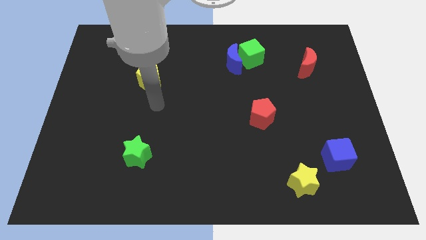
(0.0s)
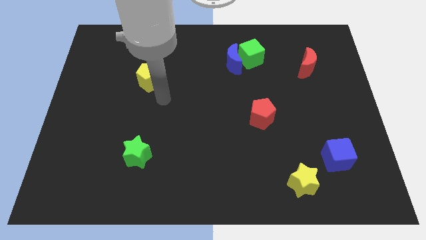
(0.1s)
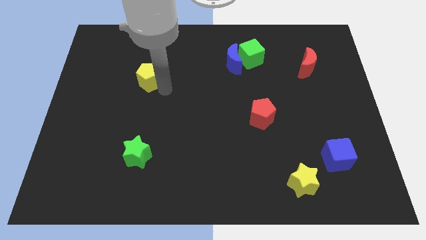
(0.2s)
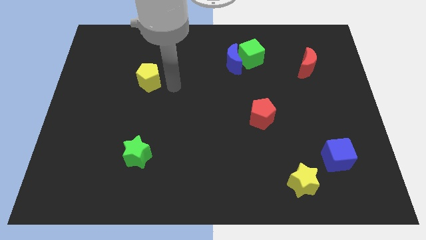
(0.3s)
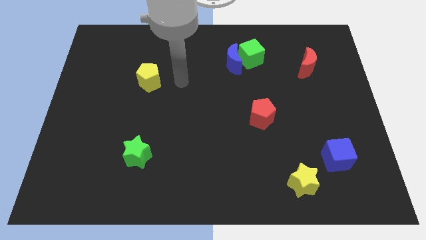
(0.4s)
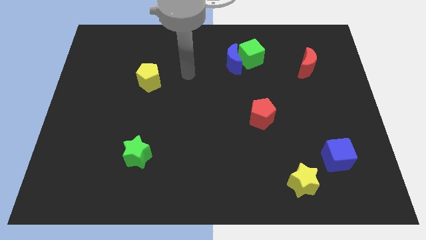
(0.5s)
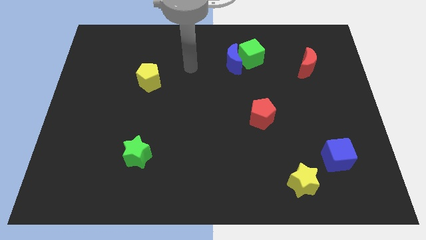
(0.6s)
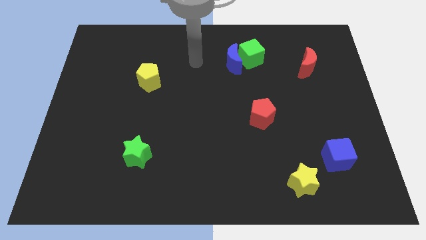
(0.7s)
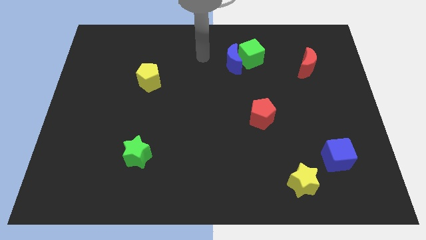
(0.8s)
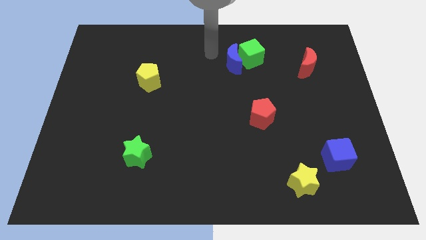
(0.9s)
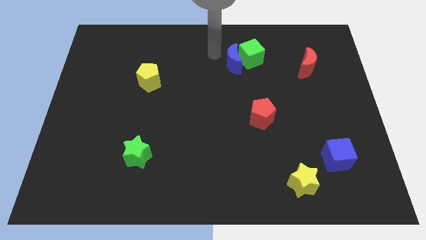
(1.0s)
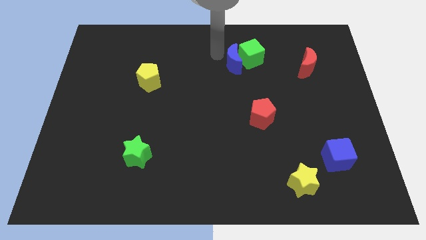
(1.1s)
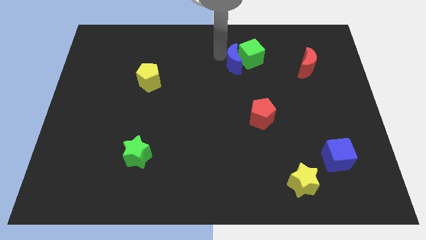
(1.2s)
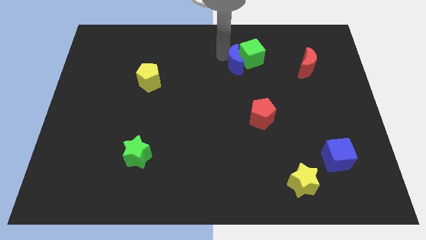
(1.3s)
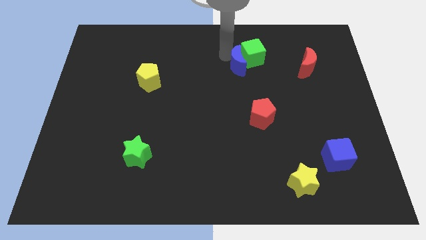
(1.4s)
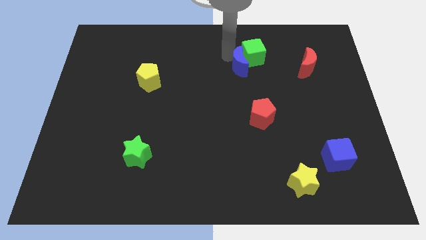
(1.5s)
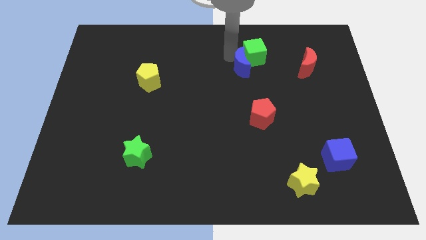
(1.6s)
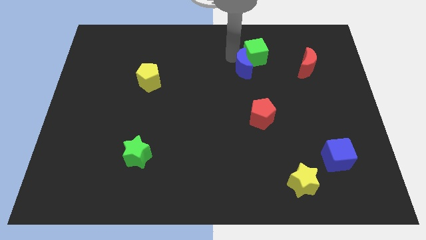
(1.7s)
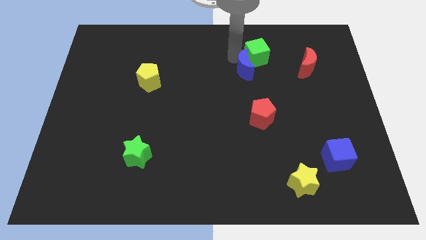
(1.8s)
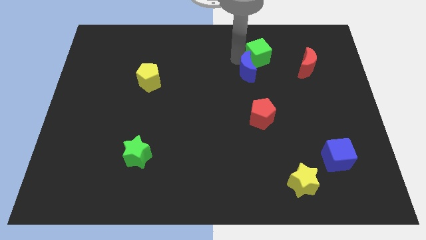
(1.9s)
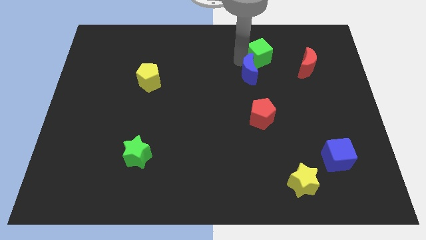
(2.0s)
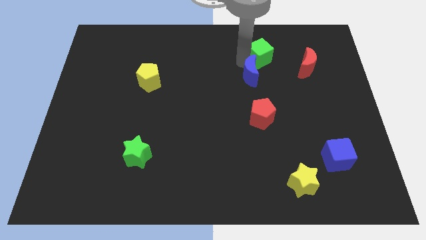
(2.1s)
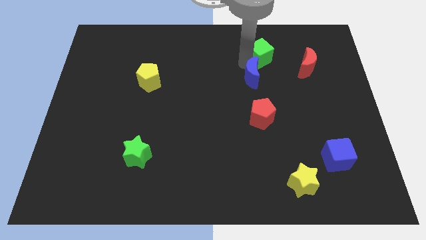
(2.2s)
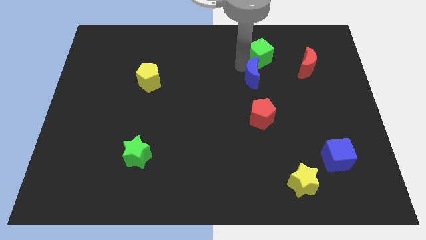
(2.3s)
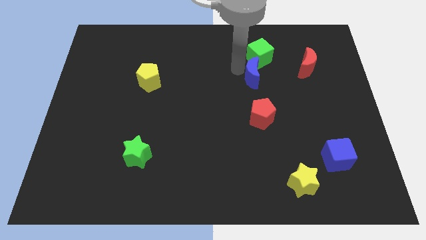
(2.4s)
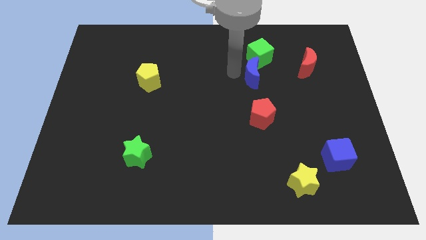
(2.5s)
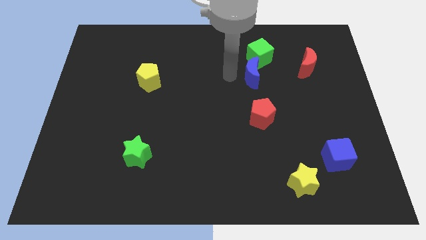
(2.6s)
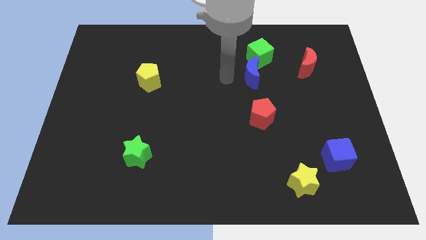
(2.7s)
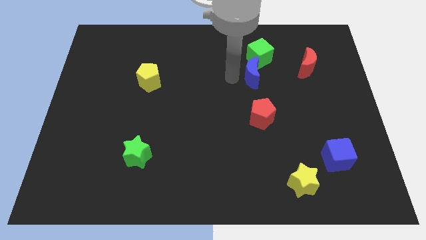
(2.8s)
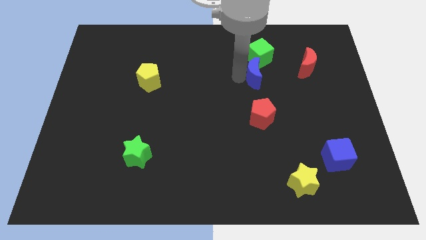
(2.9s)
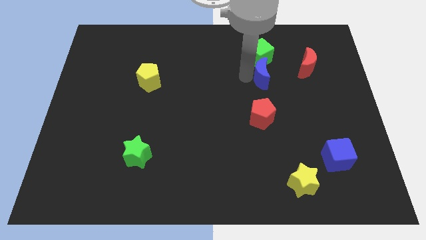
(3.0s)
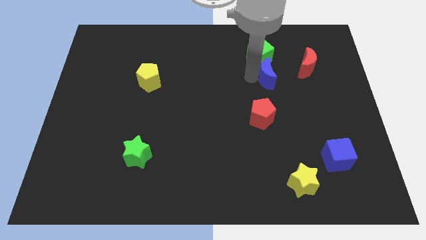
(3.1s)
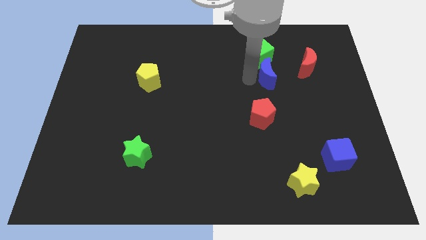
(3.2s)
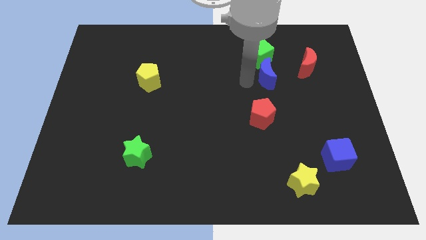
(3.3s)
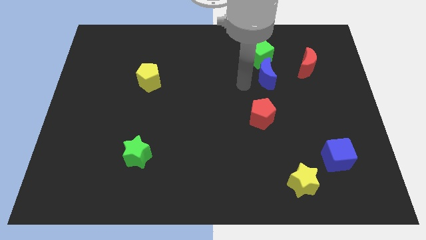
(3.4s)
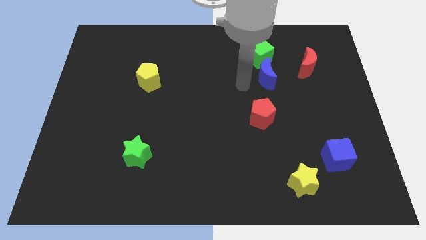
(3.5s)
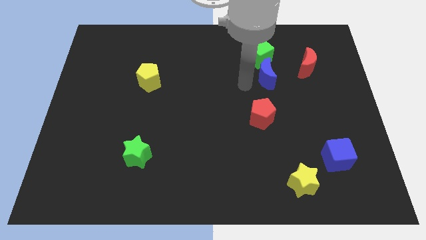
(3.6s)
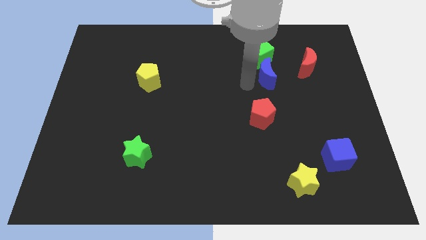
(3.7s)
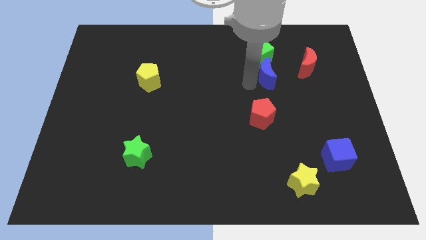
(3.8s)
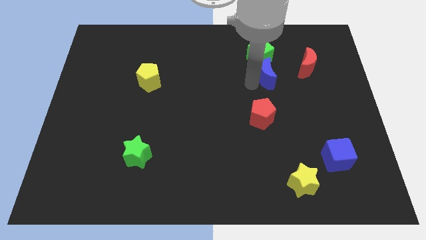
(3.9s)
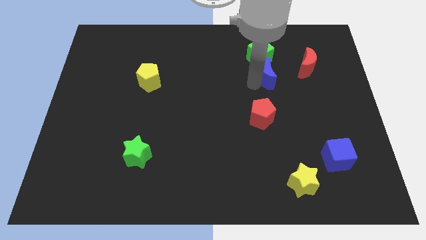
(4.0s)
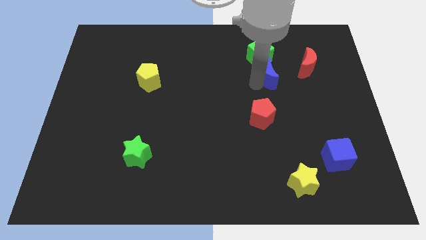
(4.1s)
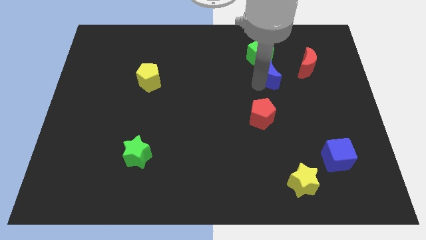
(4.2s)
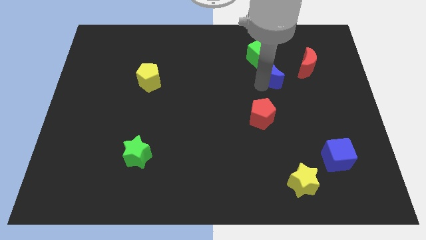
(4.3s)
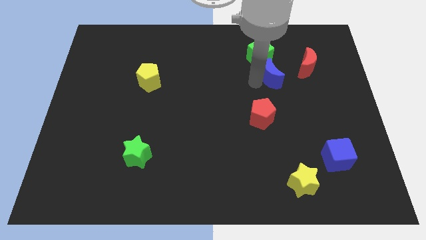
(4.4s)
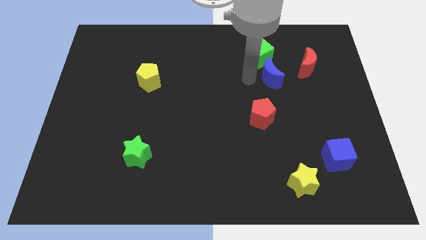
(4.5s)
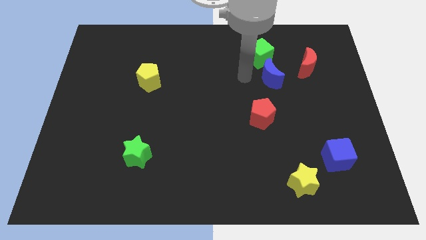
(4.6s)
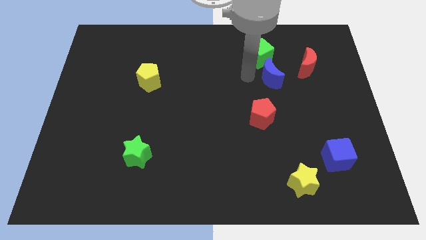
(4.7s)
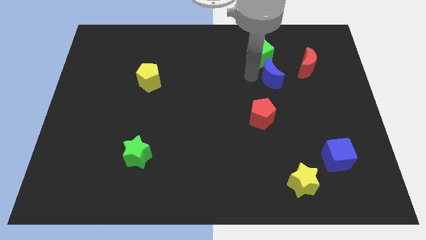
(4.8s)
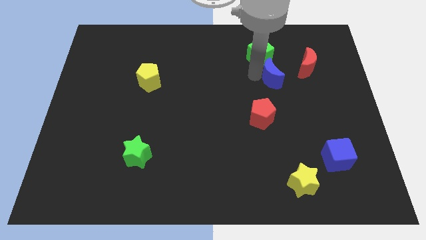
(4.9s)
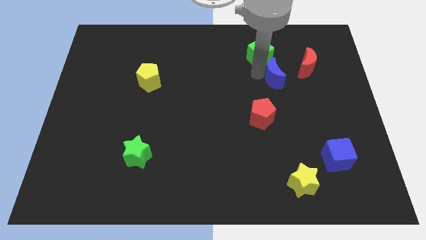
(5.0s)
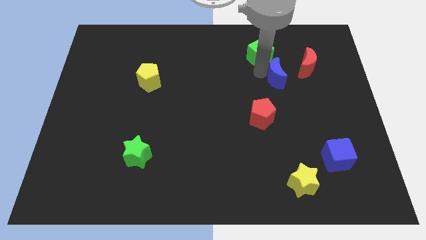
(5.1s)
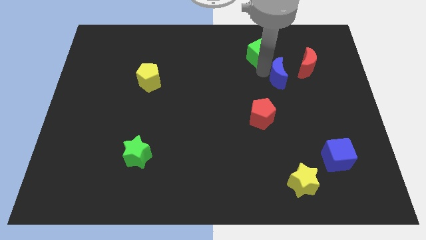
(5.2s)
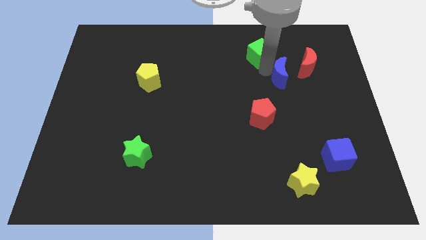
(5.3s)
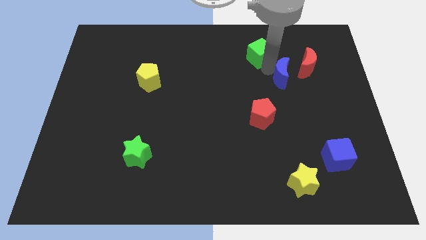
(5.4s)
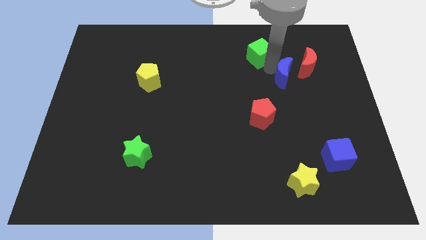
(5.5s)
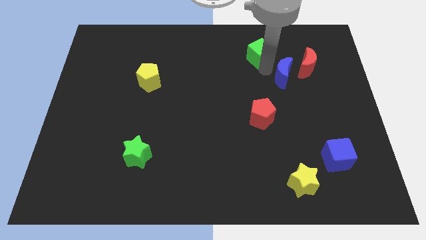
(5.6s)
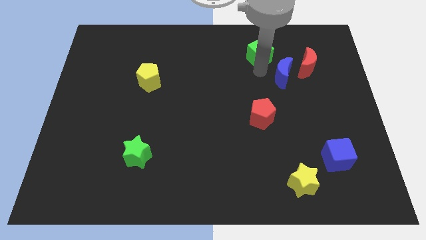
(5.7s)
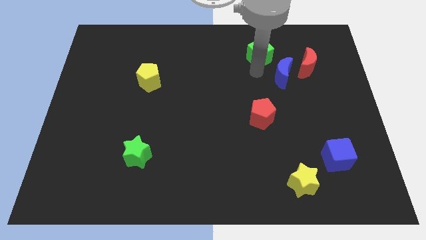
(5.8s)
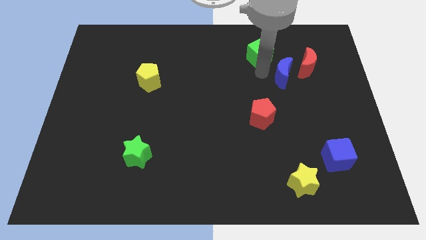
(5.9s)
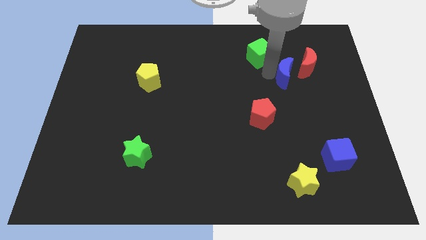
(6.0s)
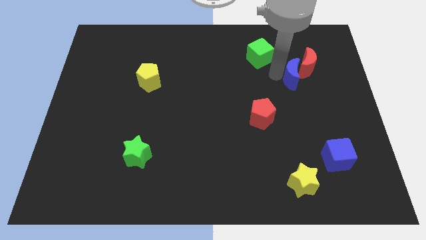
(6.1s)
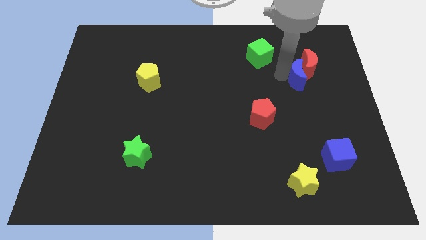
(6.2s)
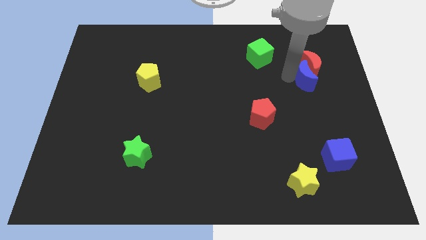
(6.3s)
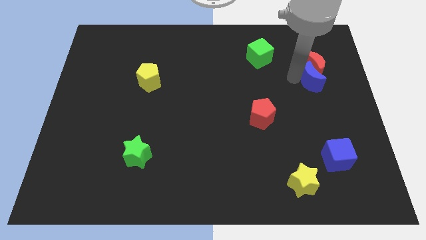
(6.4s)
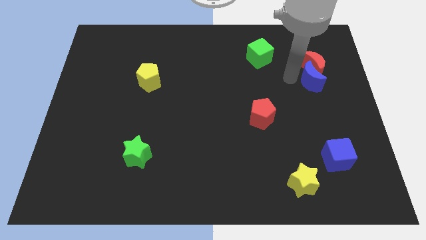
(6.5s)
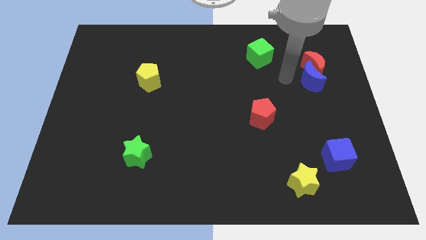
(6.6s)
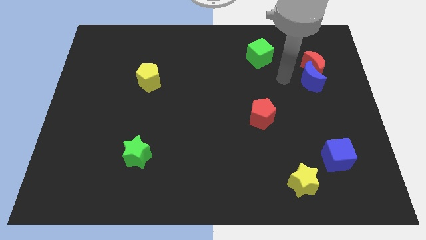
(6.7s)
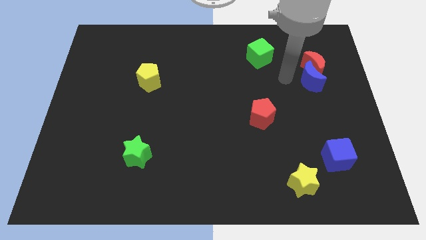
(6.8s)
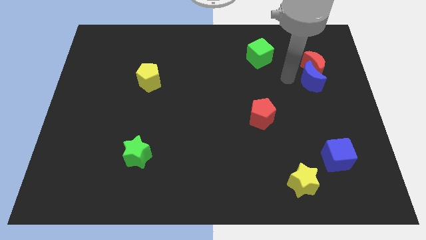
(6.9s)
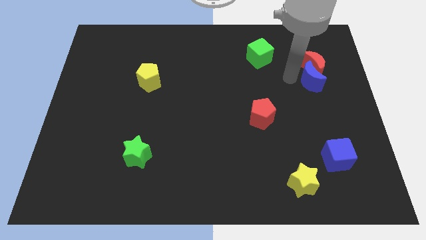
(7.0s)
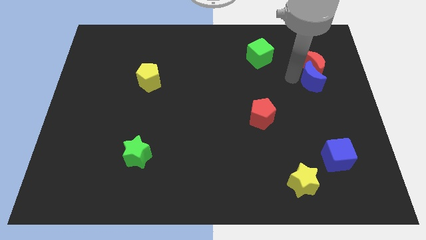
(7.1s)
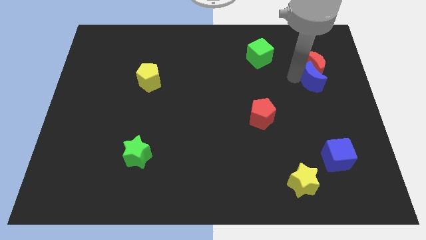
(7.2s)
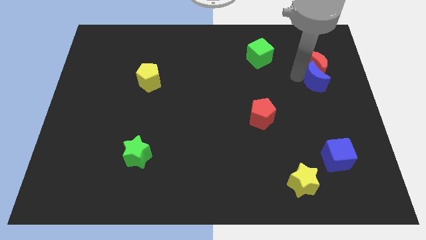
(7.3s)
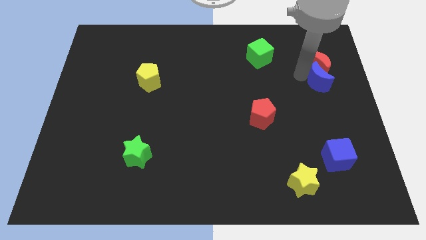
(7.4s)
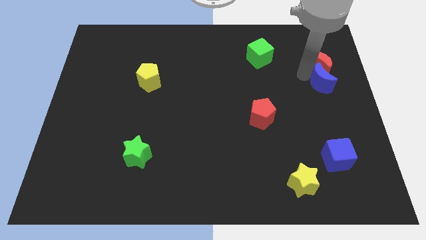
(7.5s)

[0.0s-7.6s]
slide the blue moon to the right side of the board
